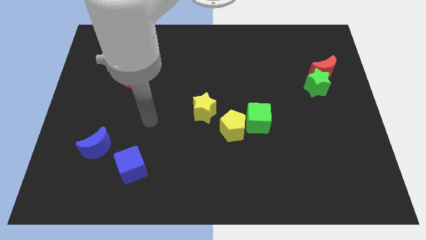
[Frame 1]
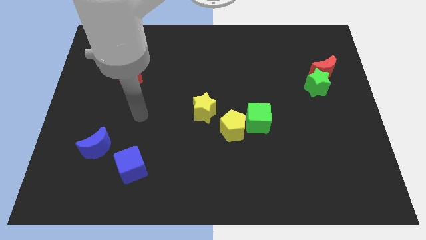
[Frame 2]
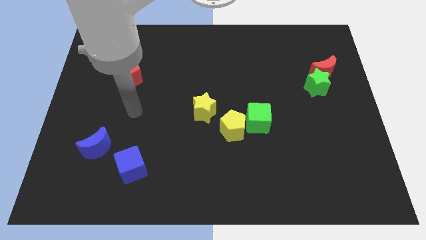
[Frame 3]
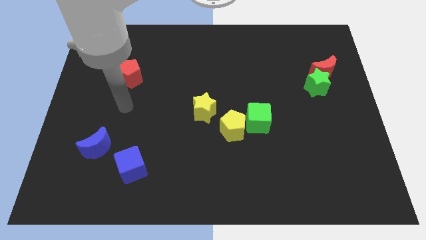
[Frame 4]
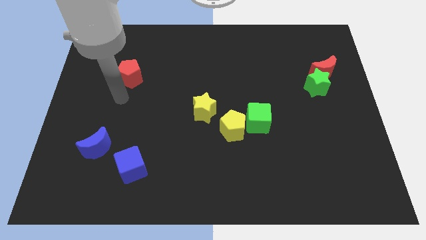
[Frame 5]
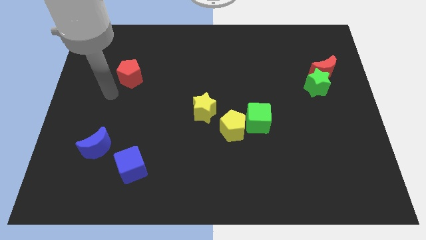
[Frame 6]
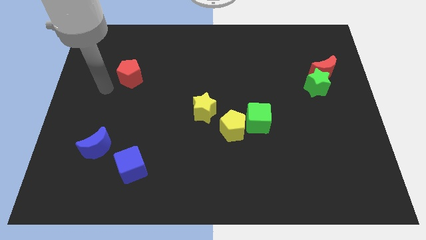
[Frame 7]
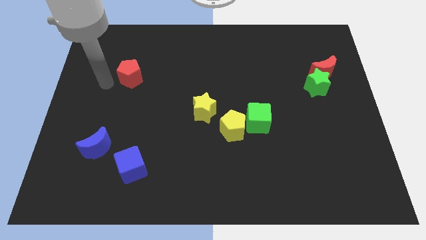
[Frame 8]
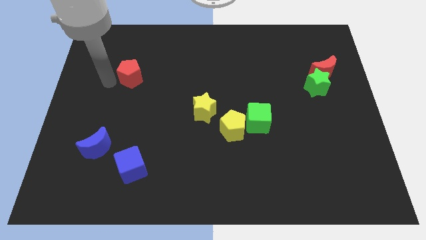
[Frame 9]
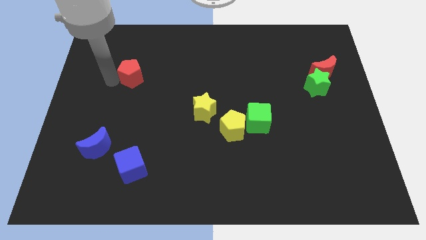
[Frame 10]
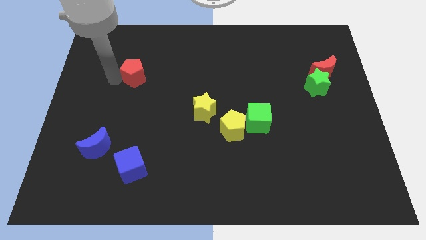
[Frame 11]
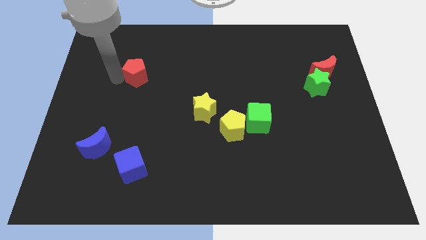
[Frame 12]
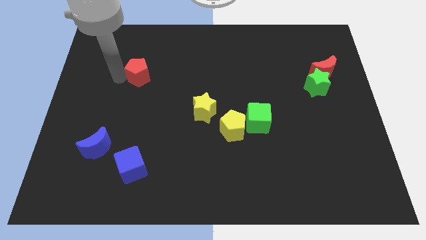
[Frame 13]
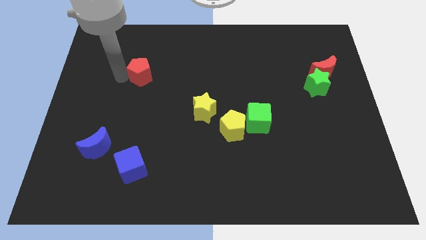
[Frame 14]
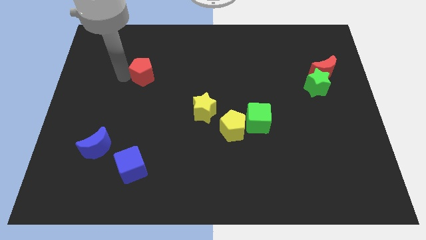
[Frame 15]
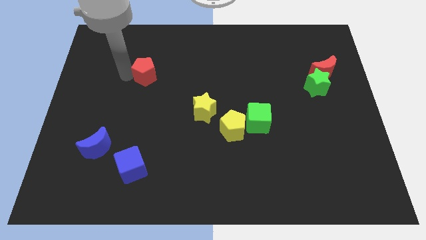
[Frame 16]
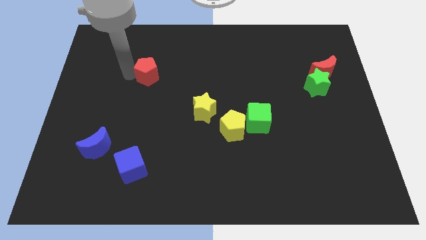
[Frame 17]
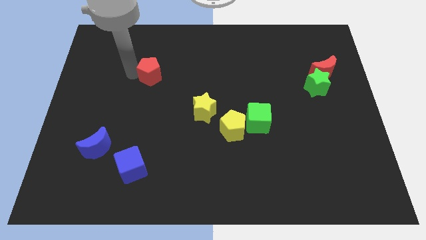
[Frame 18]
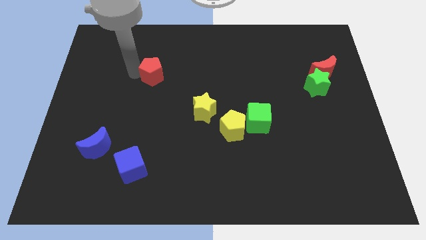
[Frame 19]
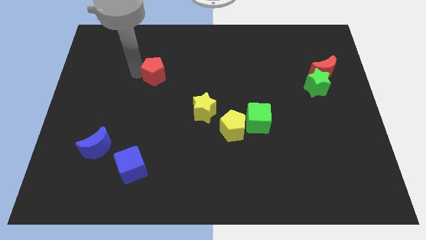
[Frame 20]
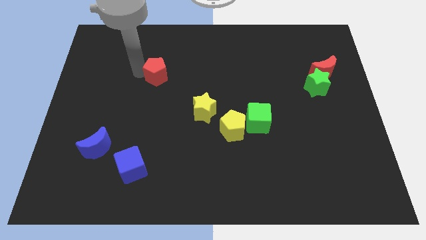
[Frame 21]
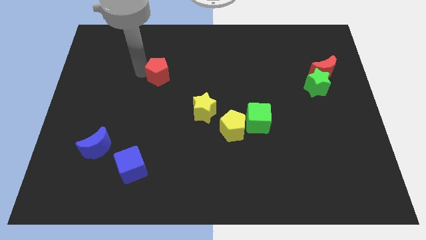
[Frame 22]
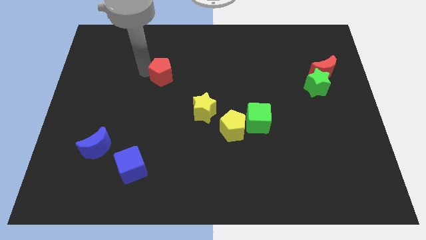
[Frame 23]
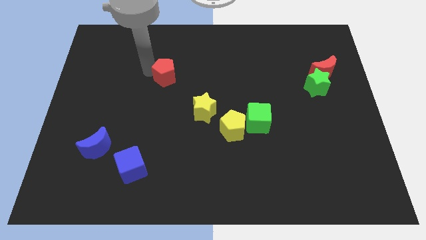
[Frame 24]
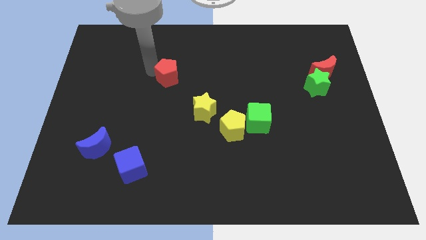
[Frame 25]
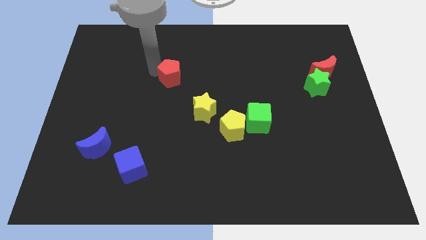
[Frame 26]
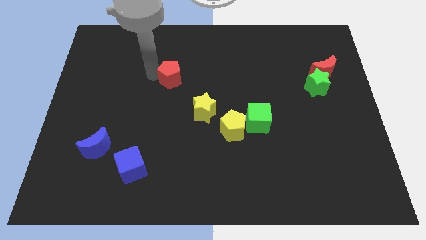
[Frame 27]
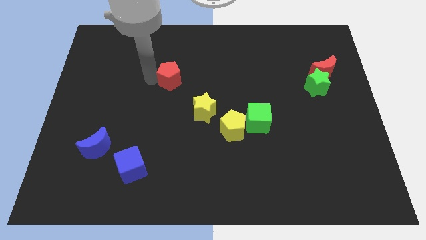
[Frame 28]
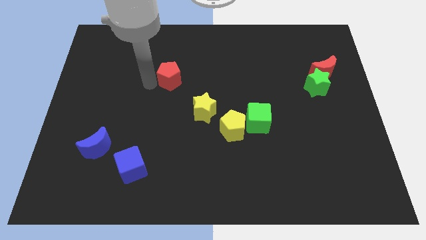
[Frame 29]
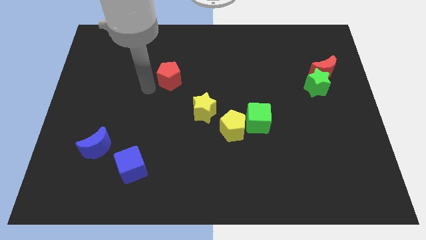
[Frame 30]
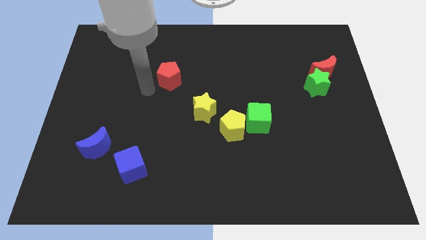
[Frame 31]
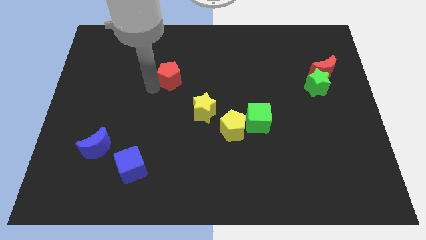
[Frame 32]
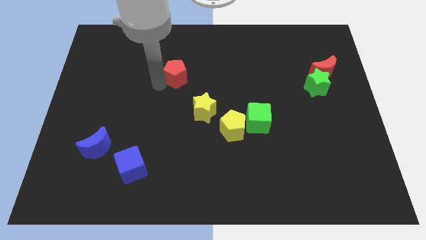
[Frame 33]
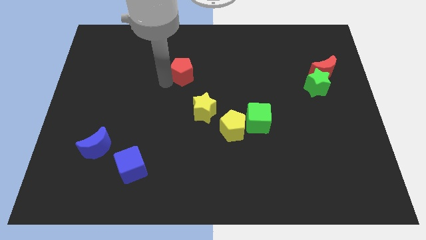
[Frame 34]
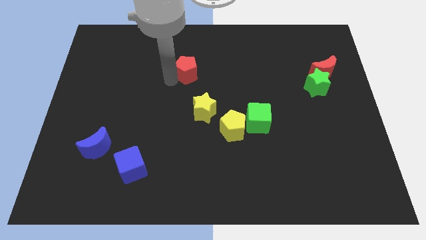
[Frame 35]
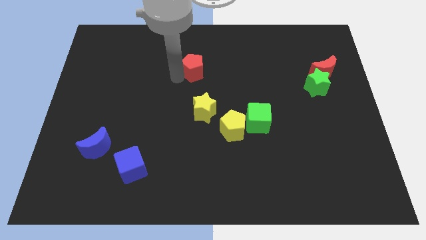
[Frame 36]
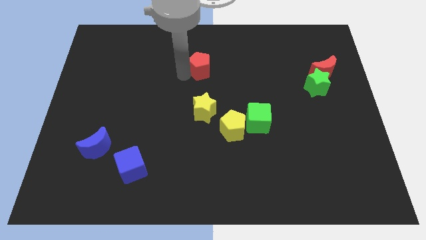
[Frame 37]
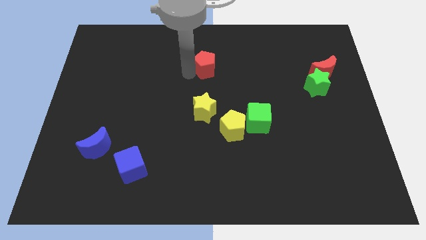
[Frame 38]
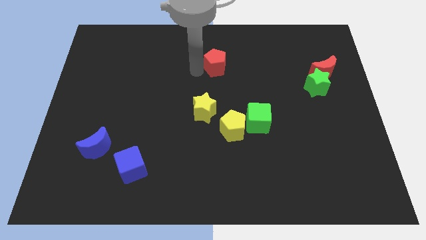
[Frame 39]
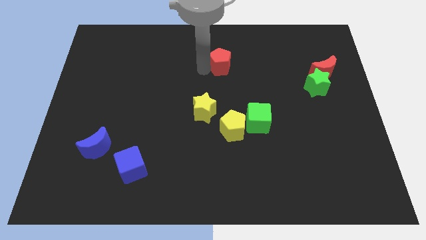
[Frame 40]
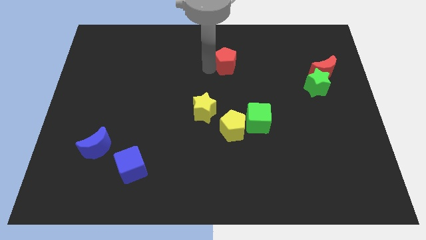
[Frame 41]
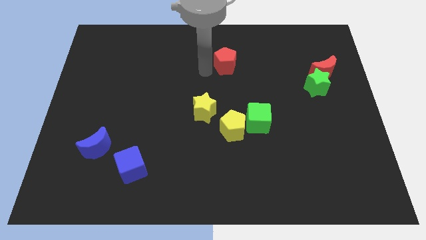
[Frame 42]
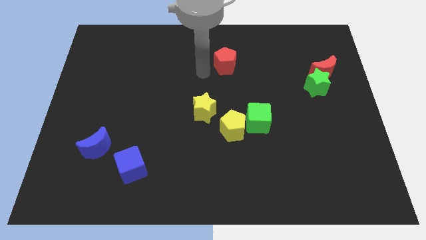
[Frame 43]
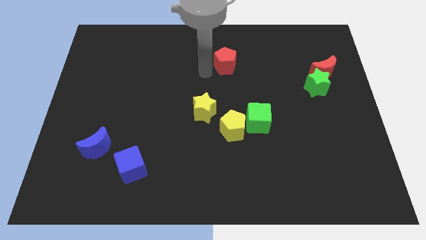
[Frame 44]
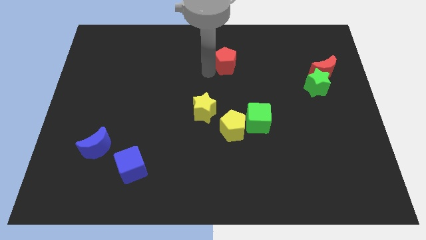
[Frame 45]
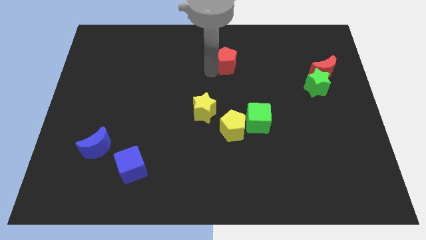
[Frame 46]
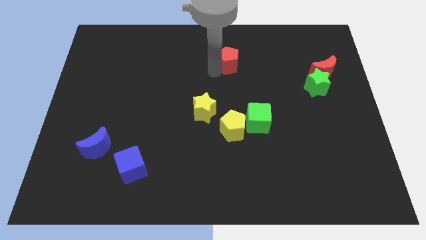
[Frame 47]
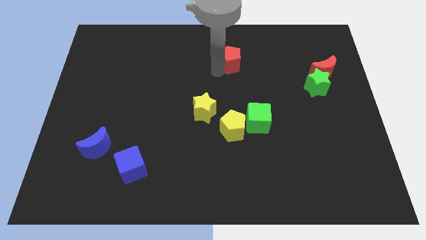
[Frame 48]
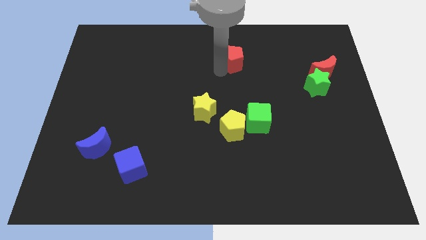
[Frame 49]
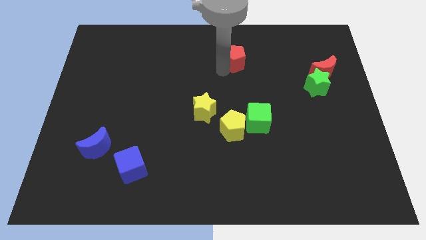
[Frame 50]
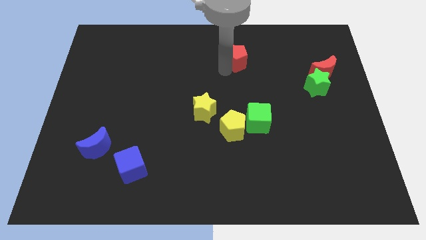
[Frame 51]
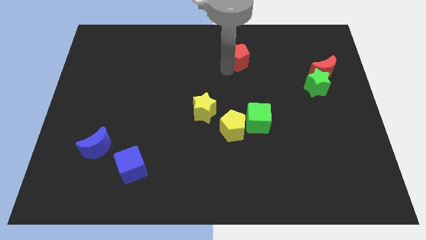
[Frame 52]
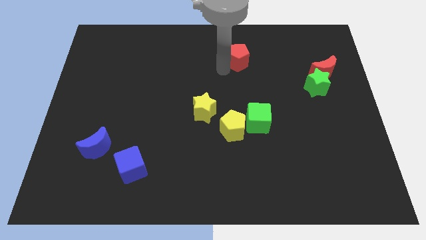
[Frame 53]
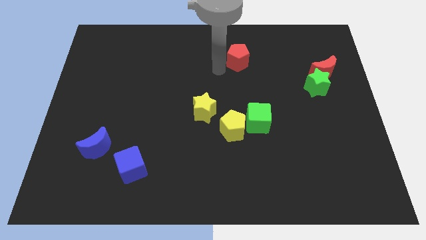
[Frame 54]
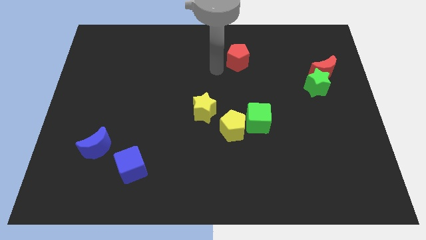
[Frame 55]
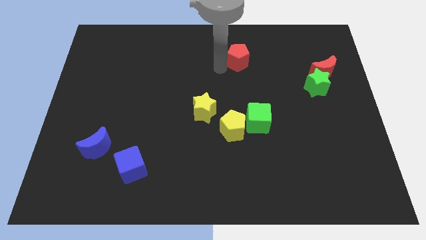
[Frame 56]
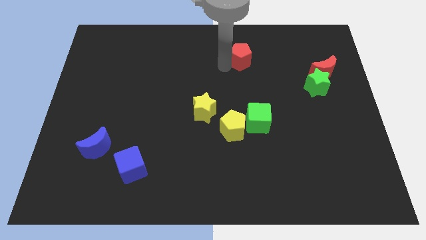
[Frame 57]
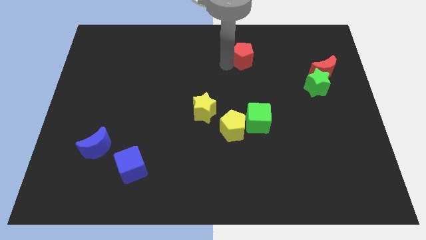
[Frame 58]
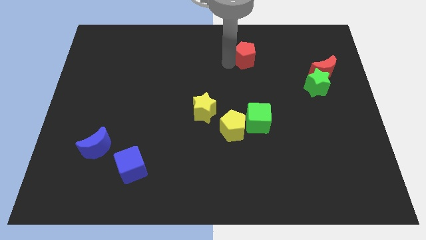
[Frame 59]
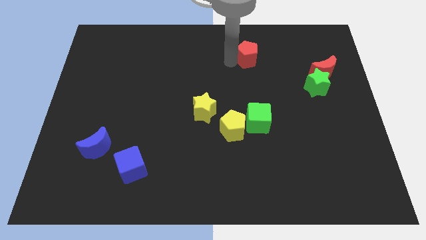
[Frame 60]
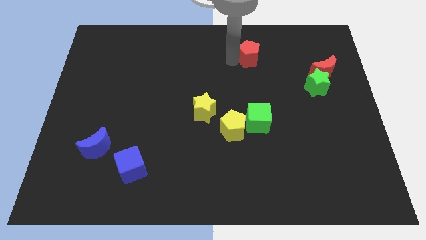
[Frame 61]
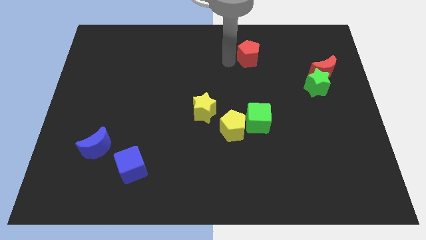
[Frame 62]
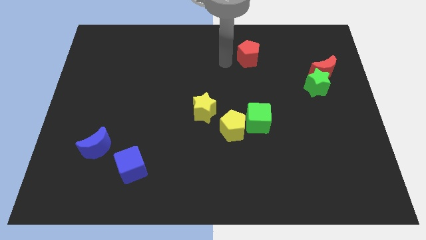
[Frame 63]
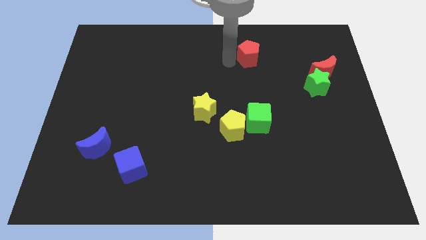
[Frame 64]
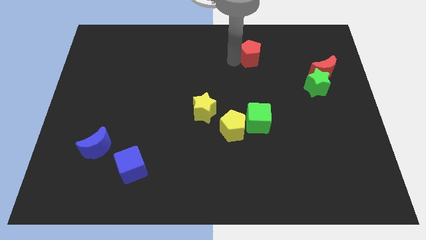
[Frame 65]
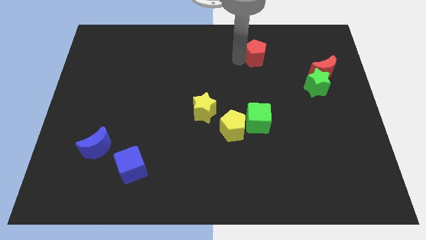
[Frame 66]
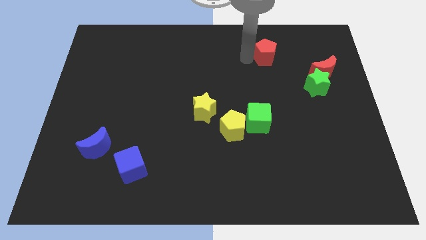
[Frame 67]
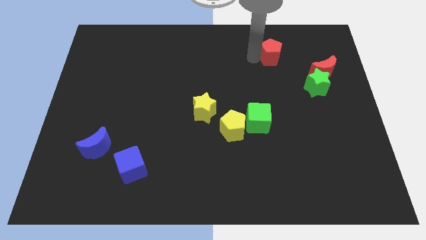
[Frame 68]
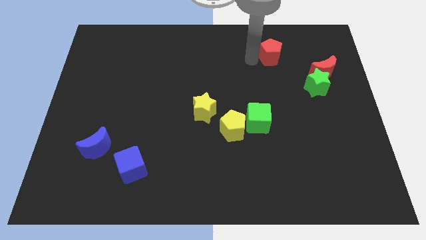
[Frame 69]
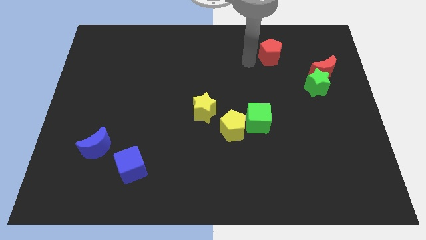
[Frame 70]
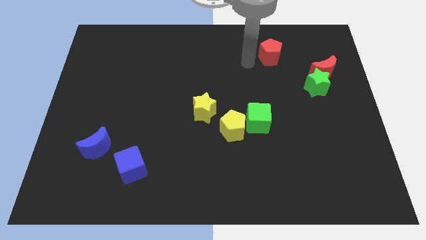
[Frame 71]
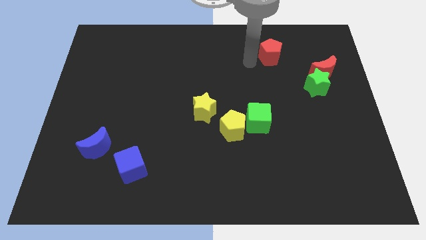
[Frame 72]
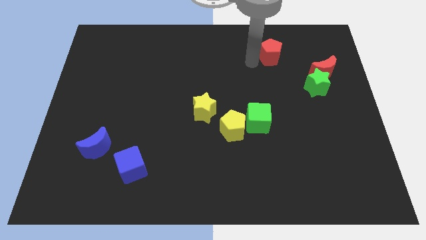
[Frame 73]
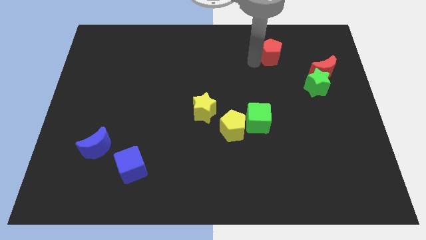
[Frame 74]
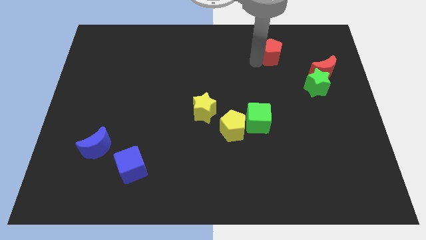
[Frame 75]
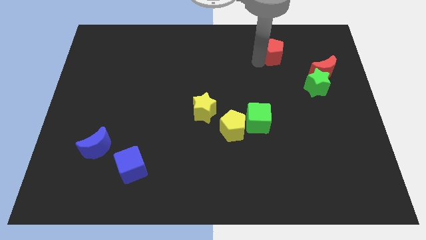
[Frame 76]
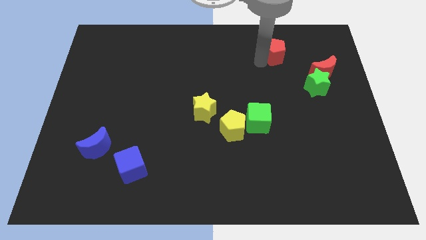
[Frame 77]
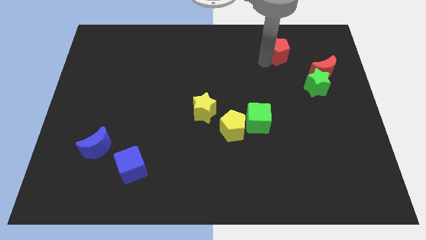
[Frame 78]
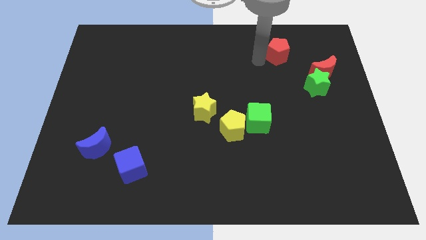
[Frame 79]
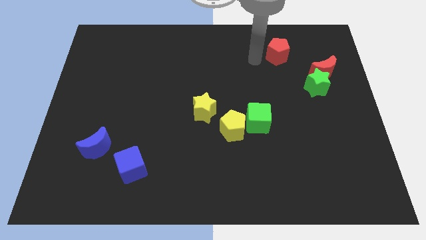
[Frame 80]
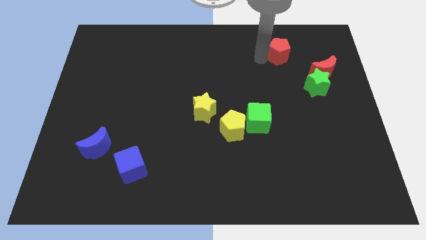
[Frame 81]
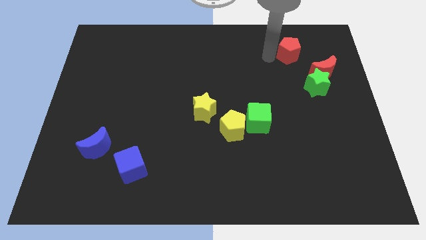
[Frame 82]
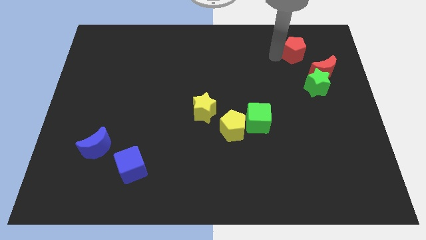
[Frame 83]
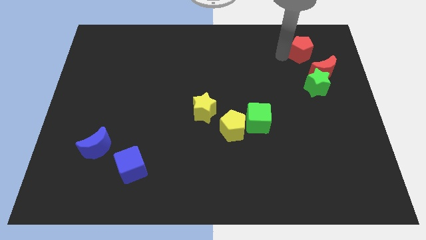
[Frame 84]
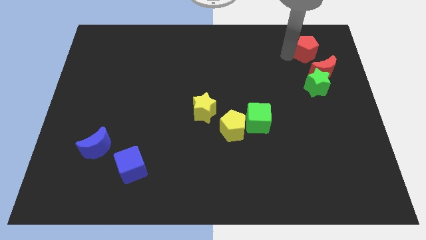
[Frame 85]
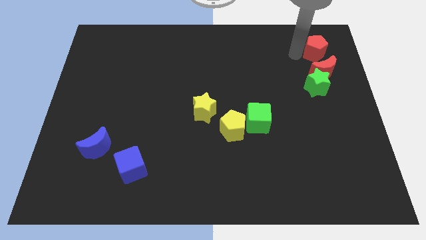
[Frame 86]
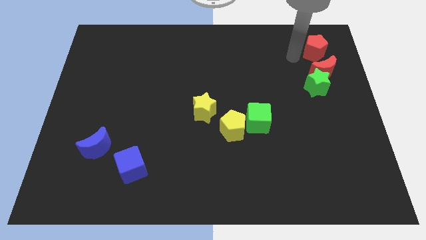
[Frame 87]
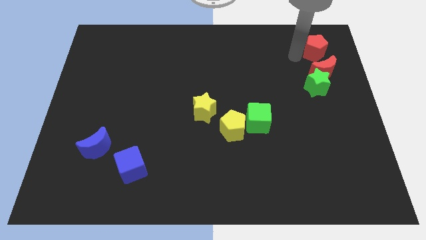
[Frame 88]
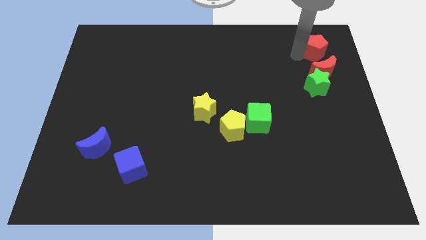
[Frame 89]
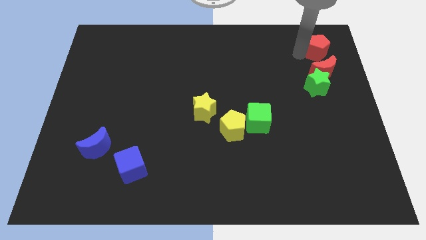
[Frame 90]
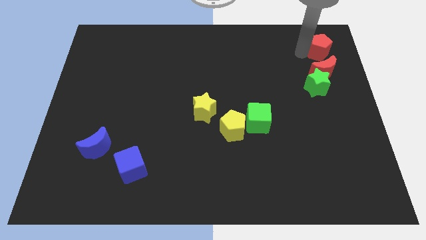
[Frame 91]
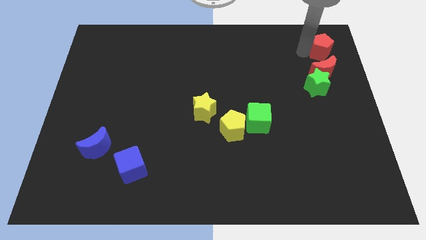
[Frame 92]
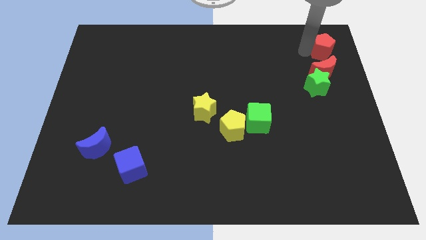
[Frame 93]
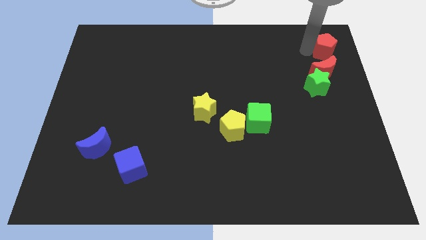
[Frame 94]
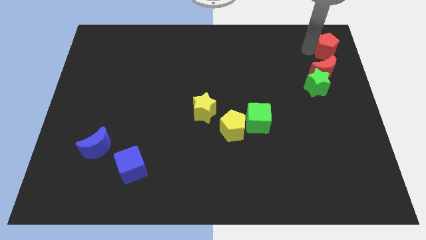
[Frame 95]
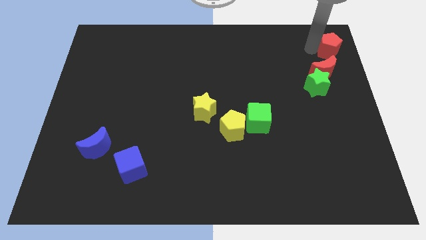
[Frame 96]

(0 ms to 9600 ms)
push the red pentagon to the upper right corner
